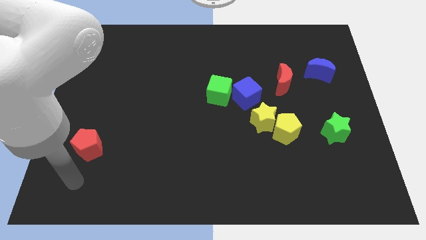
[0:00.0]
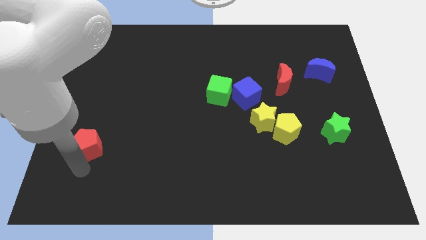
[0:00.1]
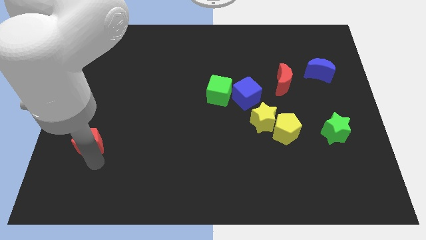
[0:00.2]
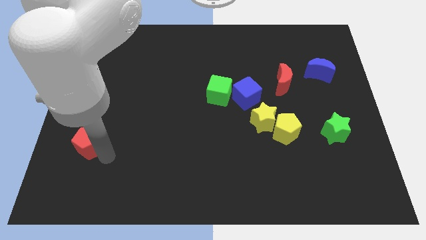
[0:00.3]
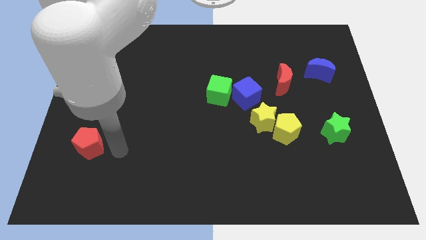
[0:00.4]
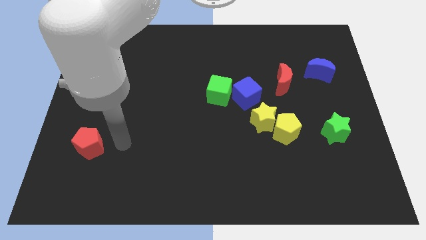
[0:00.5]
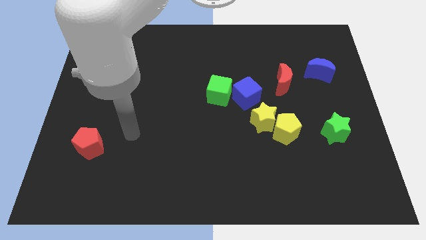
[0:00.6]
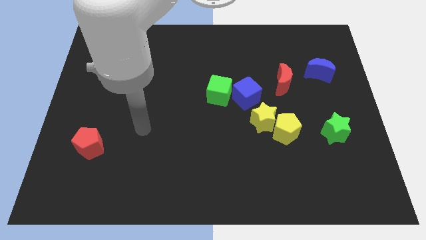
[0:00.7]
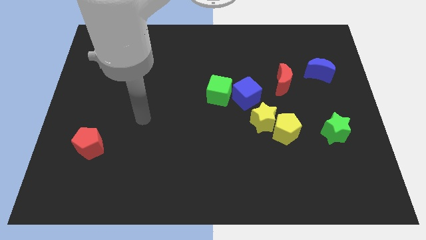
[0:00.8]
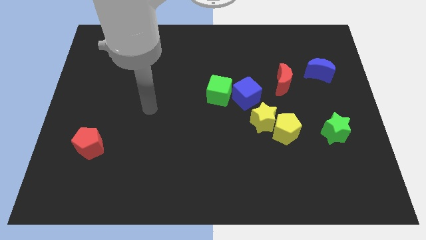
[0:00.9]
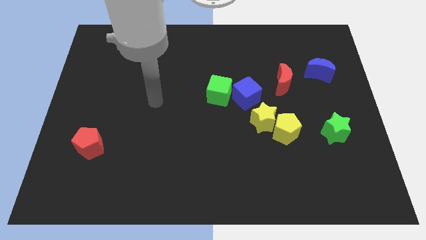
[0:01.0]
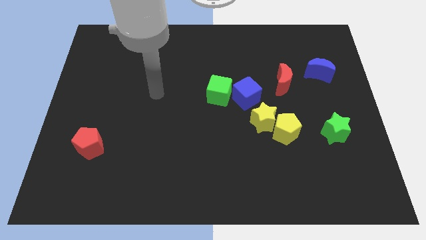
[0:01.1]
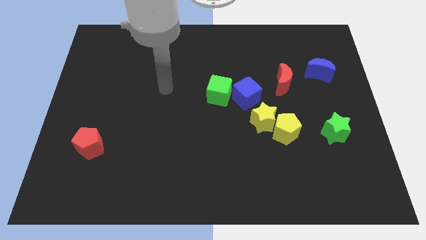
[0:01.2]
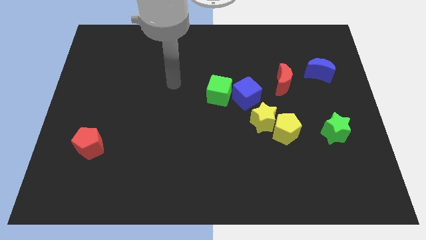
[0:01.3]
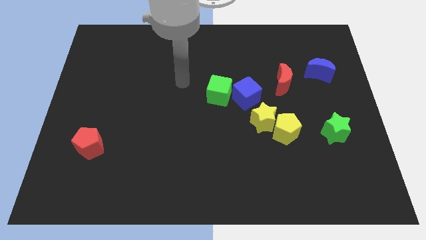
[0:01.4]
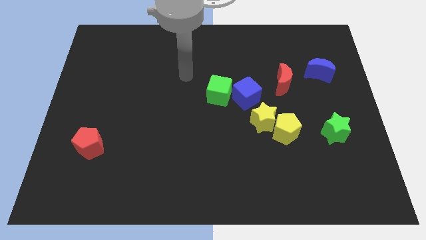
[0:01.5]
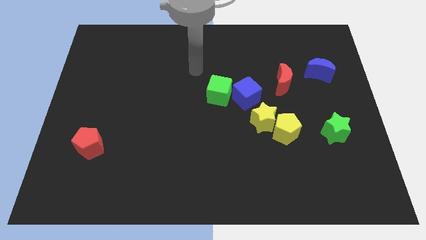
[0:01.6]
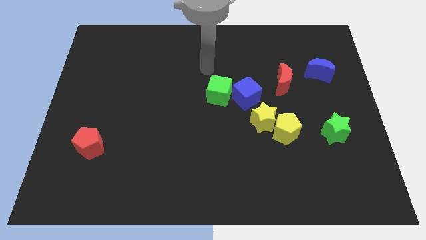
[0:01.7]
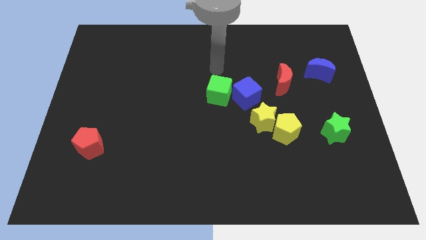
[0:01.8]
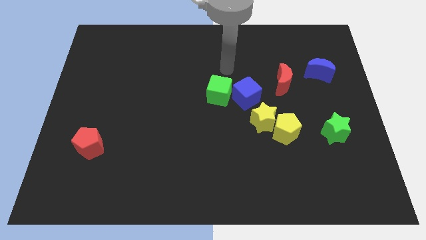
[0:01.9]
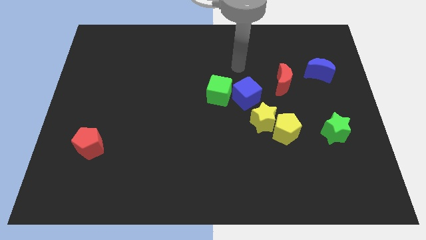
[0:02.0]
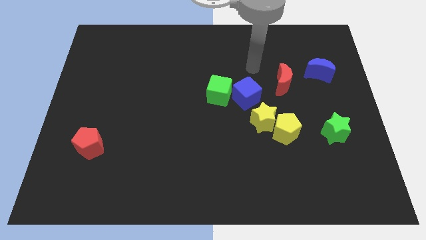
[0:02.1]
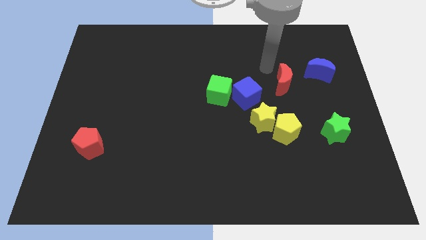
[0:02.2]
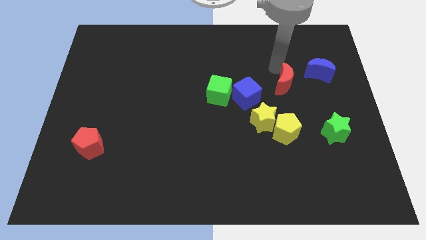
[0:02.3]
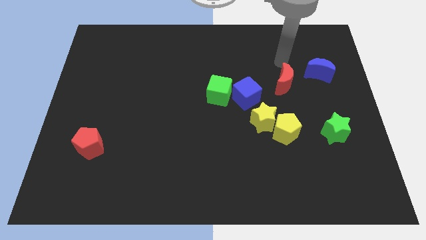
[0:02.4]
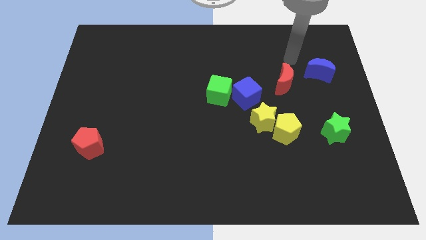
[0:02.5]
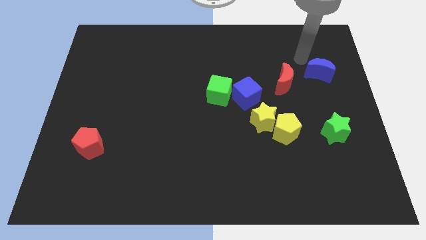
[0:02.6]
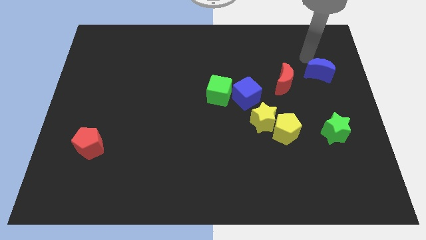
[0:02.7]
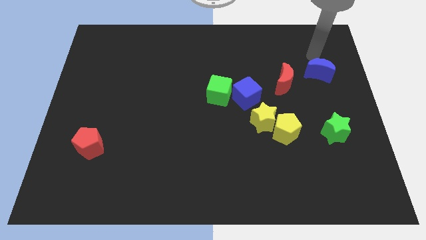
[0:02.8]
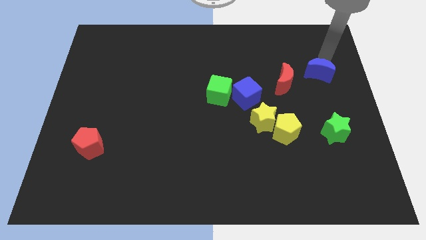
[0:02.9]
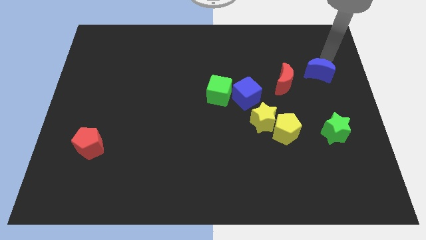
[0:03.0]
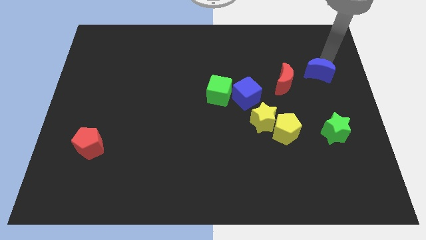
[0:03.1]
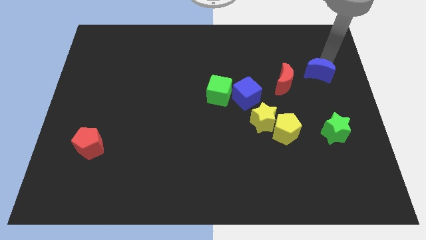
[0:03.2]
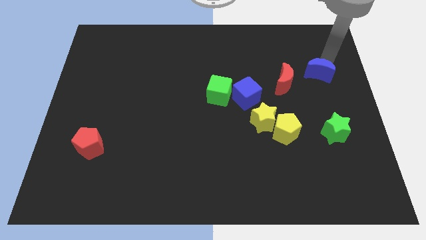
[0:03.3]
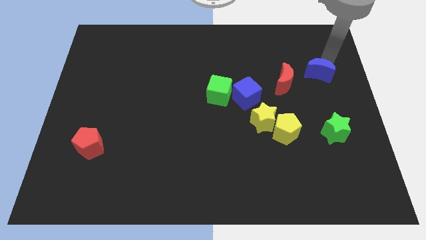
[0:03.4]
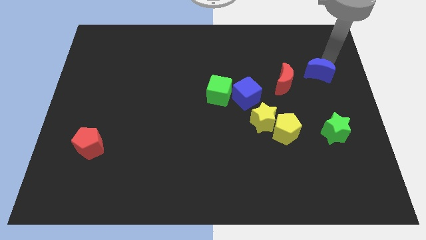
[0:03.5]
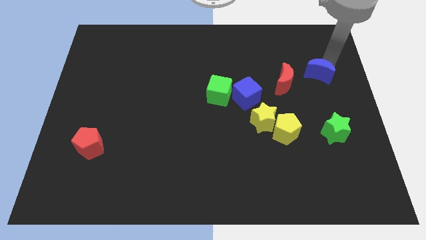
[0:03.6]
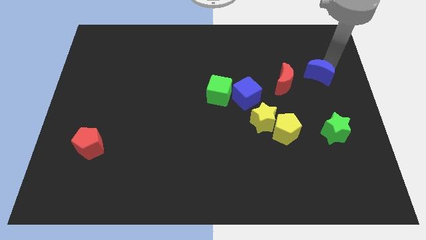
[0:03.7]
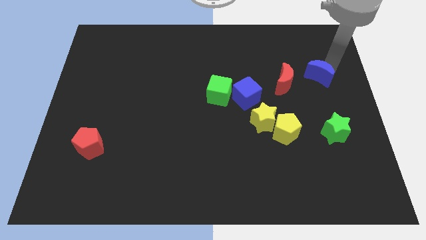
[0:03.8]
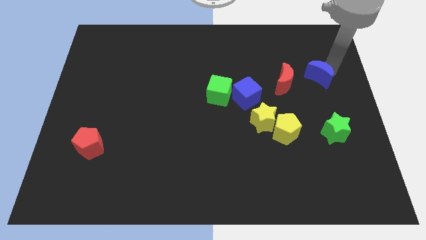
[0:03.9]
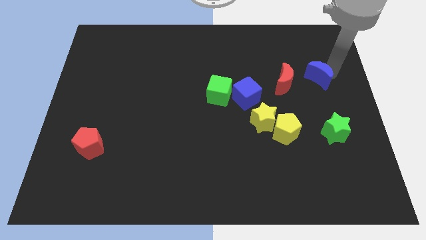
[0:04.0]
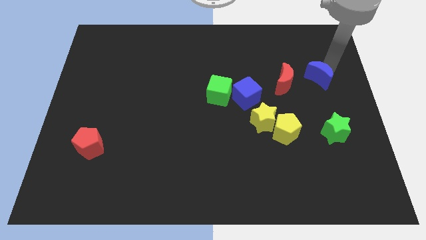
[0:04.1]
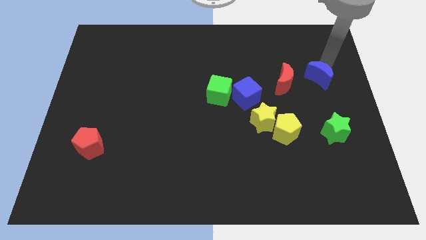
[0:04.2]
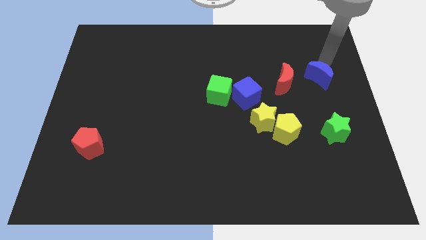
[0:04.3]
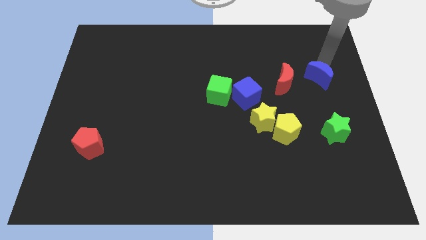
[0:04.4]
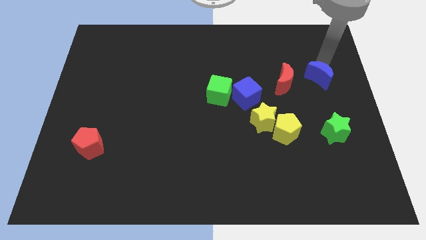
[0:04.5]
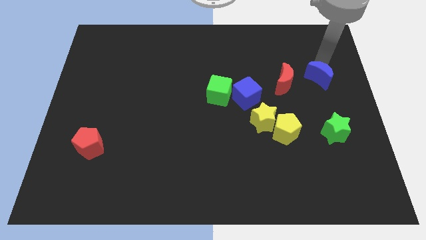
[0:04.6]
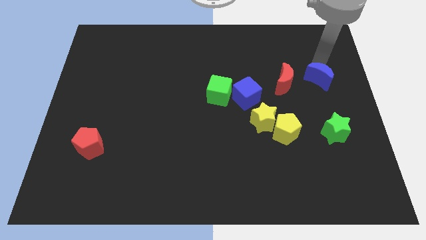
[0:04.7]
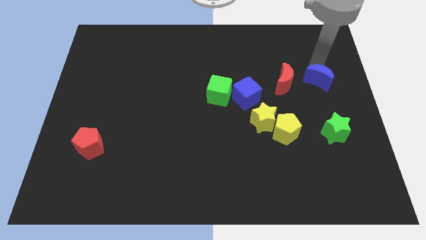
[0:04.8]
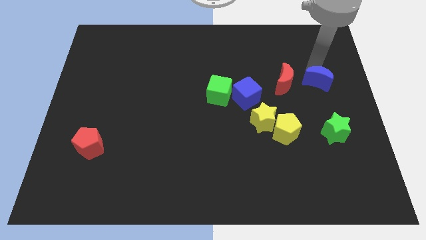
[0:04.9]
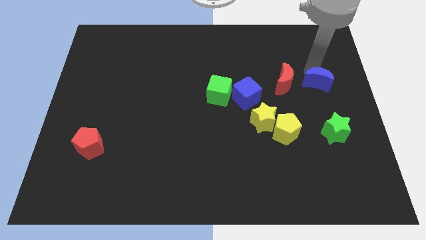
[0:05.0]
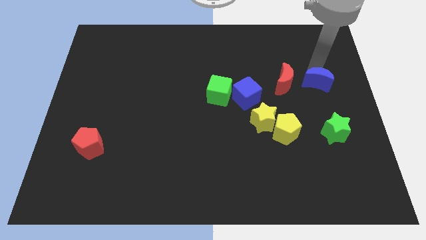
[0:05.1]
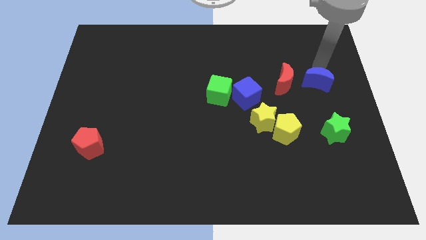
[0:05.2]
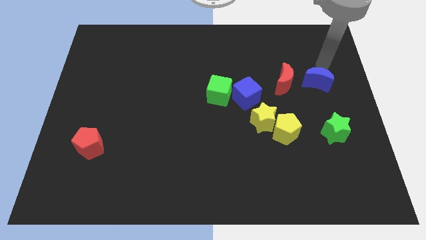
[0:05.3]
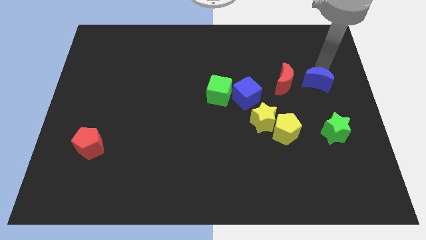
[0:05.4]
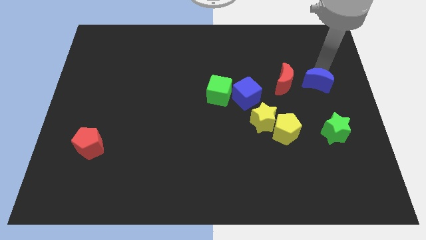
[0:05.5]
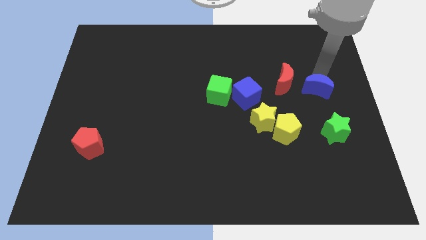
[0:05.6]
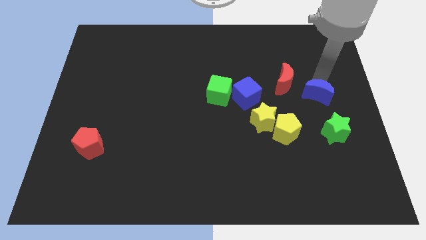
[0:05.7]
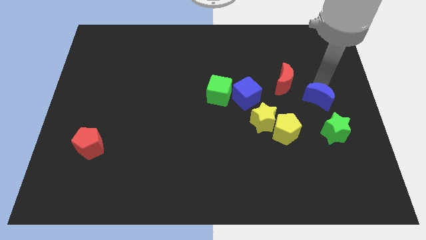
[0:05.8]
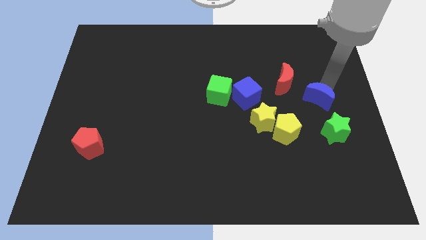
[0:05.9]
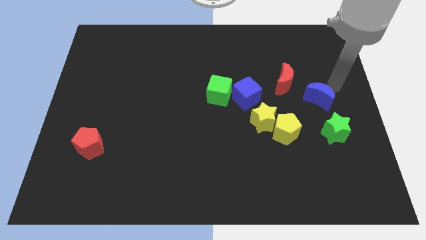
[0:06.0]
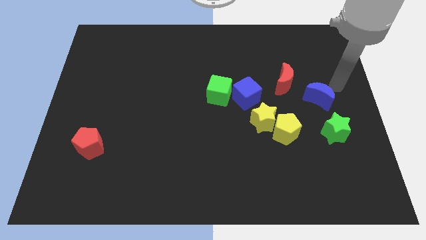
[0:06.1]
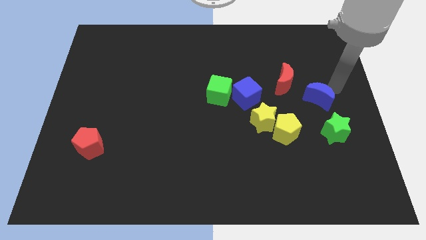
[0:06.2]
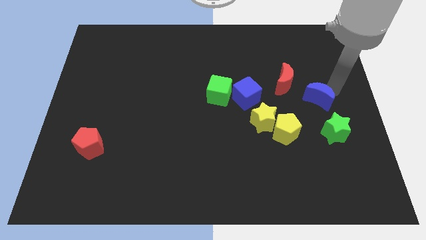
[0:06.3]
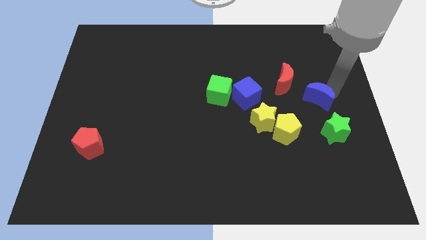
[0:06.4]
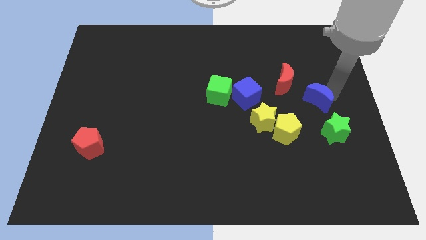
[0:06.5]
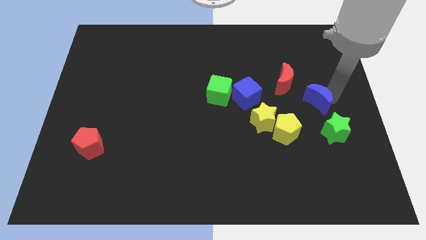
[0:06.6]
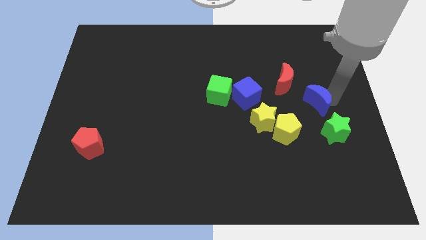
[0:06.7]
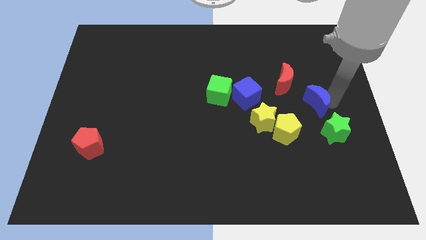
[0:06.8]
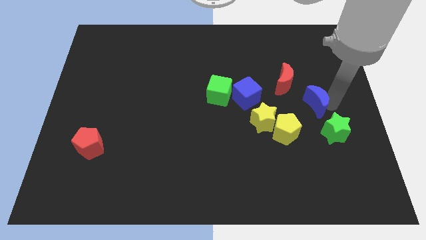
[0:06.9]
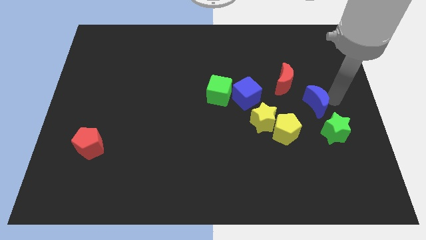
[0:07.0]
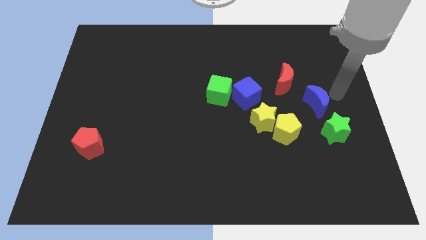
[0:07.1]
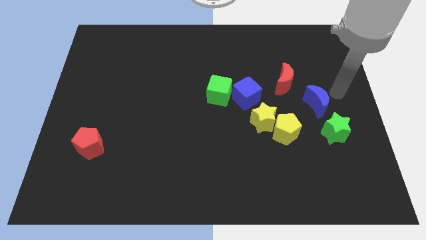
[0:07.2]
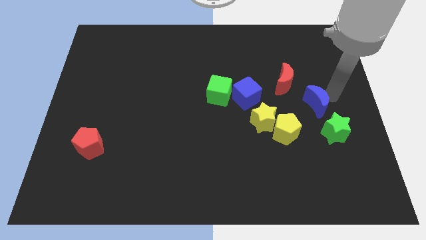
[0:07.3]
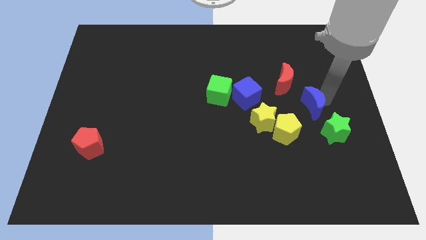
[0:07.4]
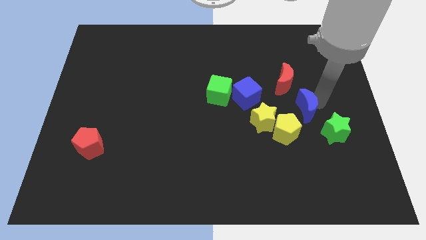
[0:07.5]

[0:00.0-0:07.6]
slide the blue moon below the red moon
